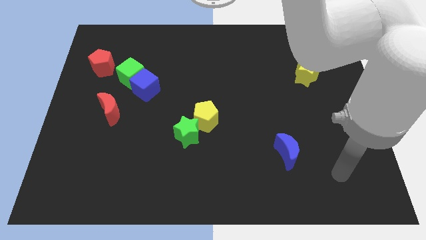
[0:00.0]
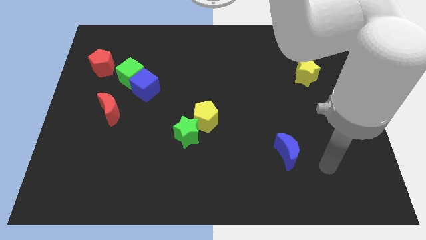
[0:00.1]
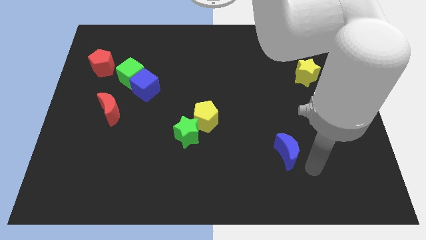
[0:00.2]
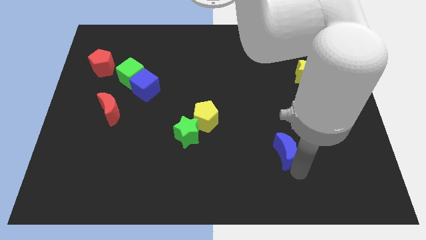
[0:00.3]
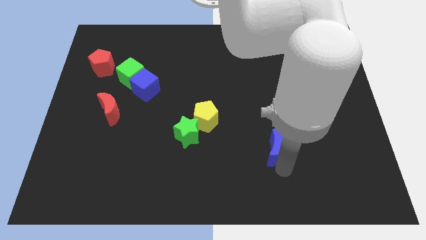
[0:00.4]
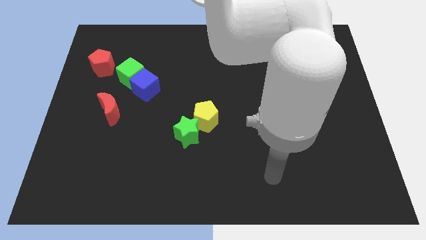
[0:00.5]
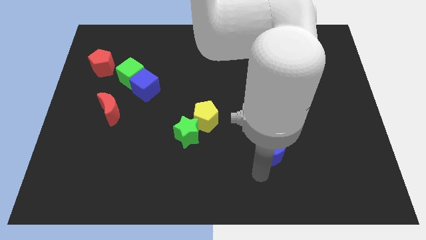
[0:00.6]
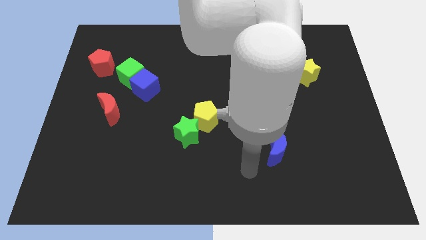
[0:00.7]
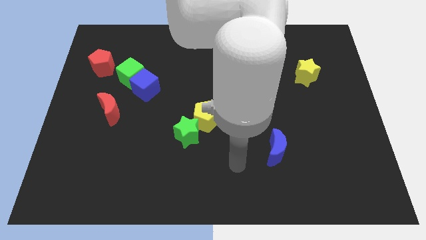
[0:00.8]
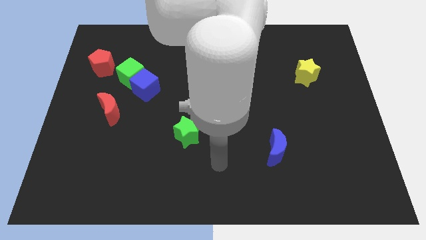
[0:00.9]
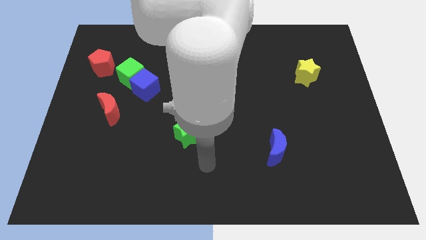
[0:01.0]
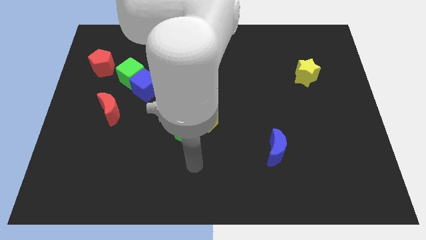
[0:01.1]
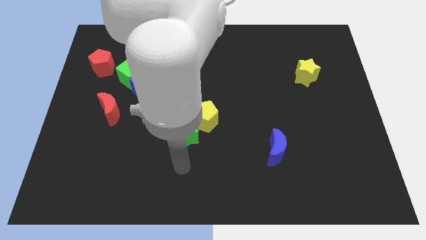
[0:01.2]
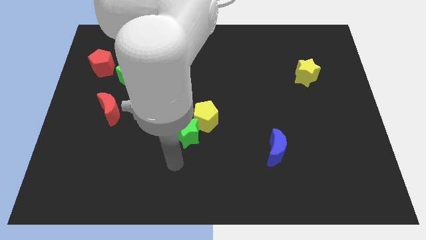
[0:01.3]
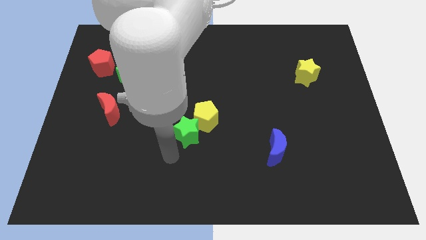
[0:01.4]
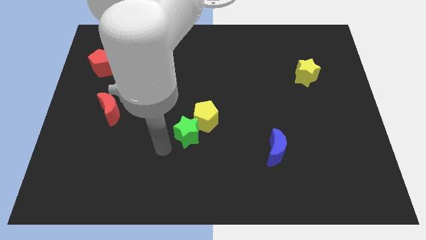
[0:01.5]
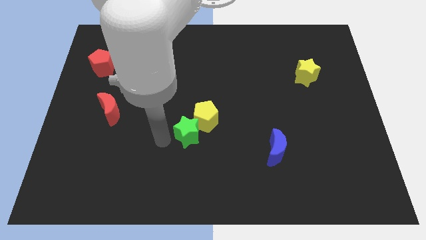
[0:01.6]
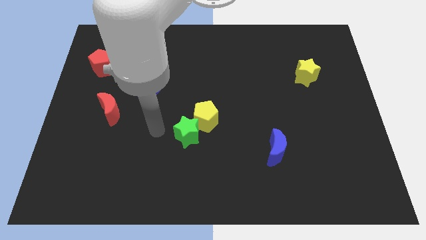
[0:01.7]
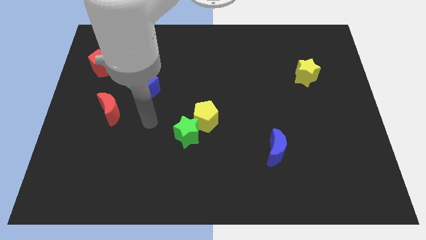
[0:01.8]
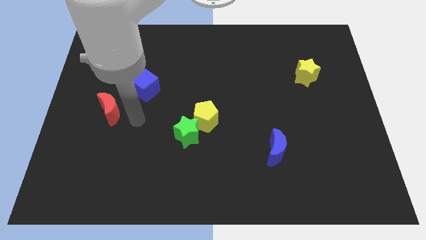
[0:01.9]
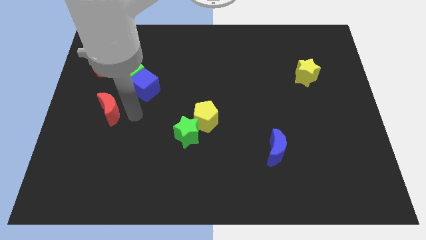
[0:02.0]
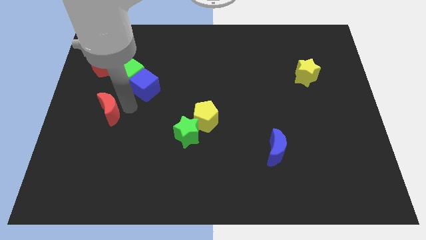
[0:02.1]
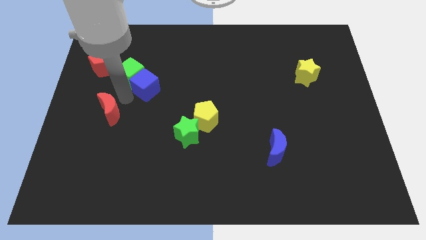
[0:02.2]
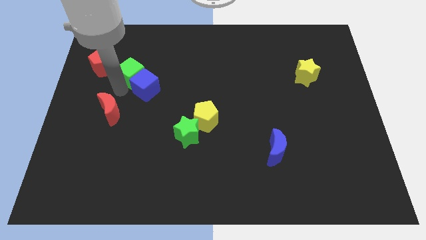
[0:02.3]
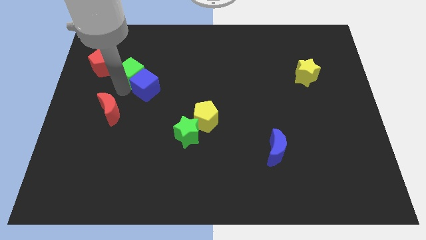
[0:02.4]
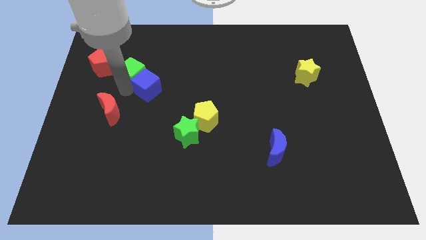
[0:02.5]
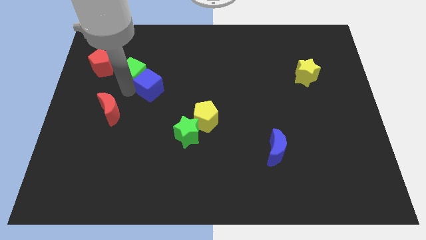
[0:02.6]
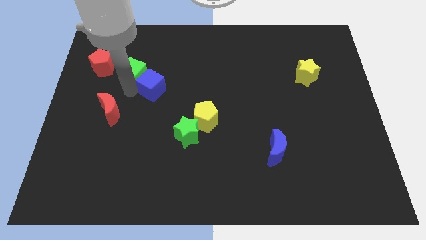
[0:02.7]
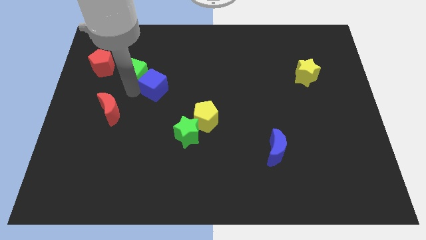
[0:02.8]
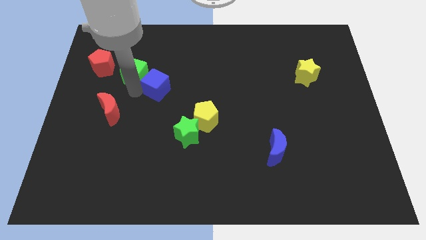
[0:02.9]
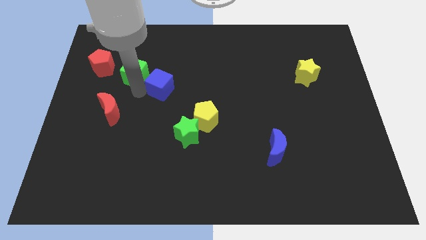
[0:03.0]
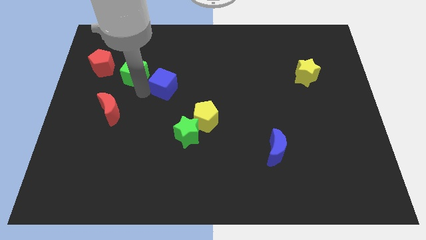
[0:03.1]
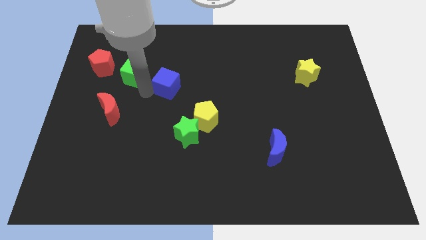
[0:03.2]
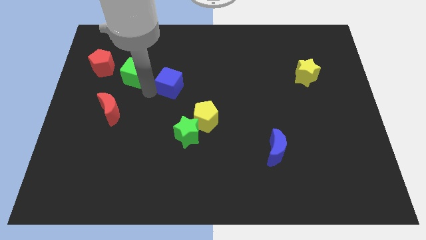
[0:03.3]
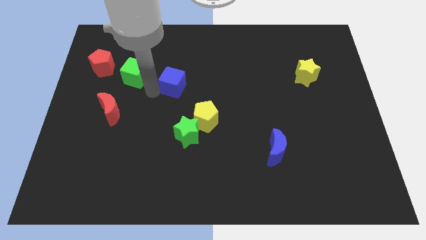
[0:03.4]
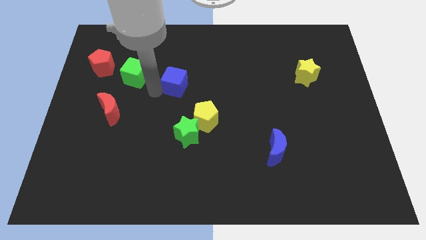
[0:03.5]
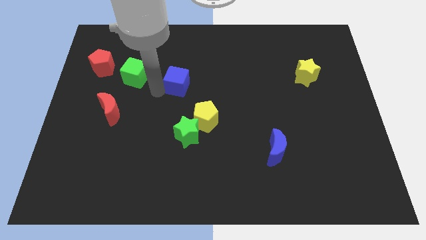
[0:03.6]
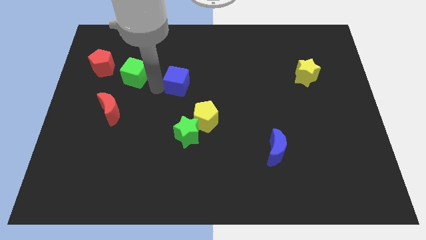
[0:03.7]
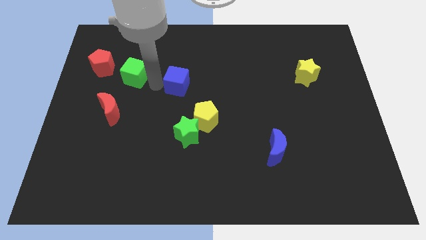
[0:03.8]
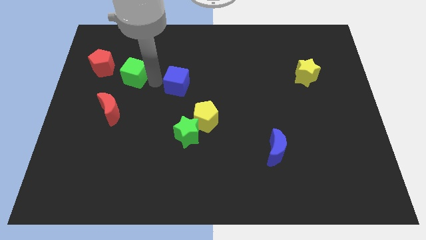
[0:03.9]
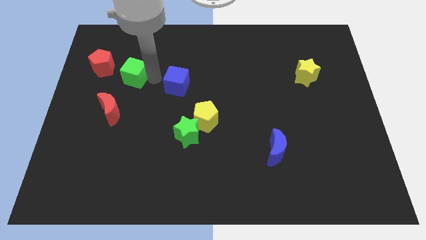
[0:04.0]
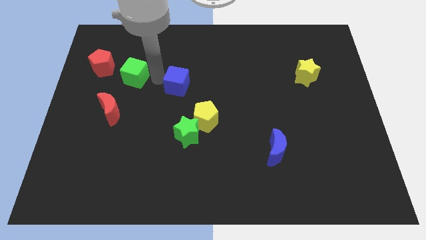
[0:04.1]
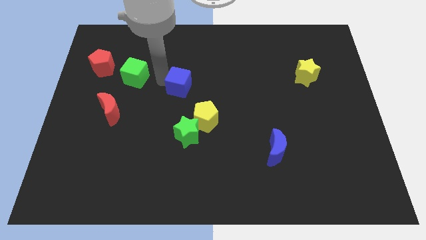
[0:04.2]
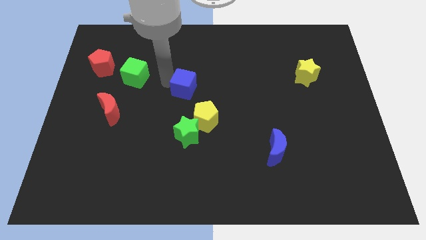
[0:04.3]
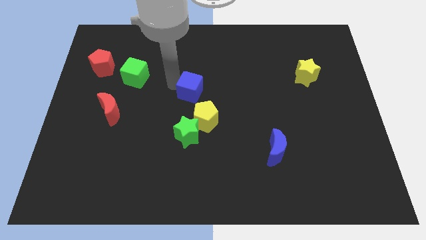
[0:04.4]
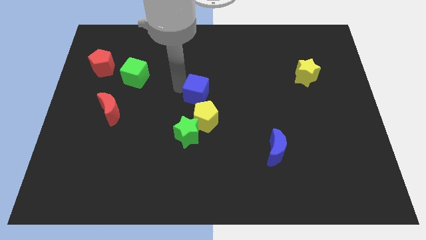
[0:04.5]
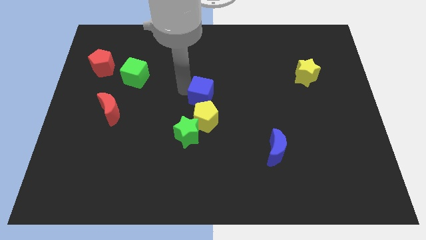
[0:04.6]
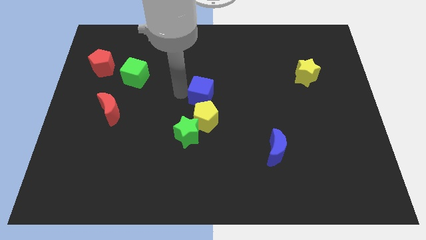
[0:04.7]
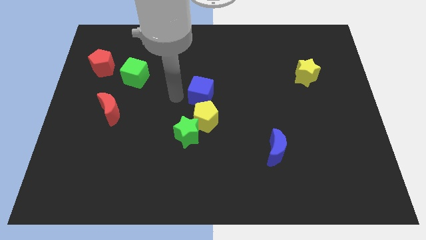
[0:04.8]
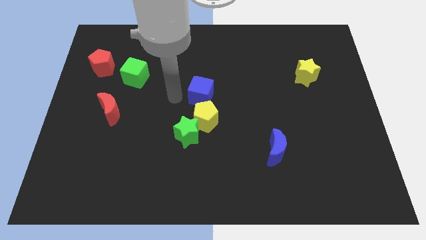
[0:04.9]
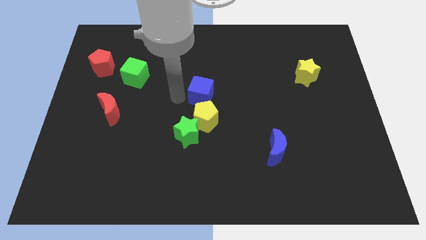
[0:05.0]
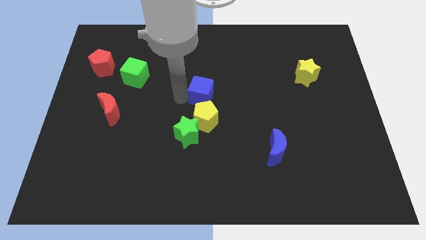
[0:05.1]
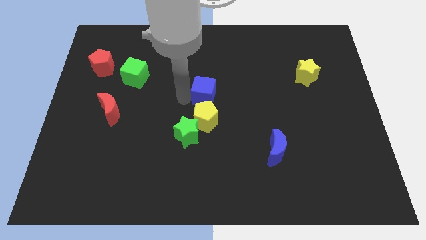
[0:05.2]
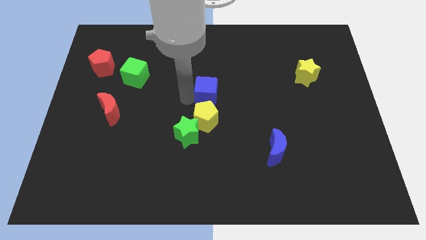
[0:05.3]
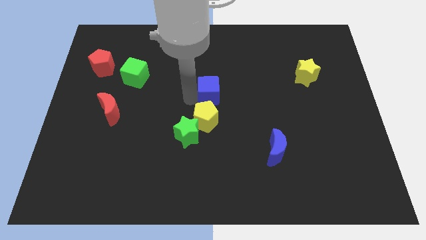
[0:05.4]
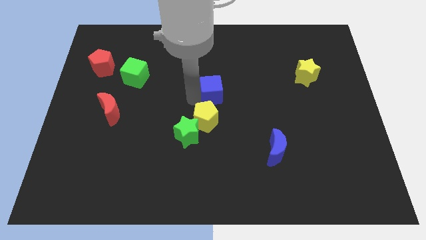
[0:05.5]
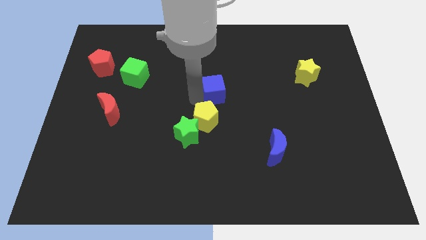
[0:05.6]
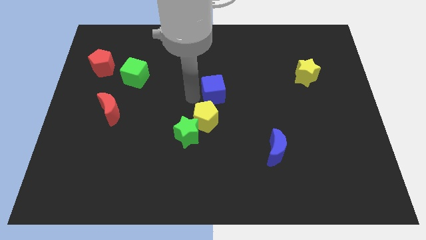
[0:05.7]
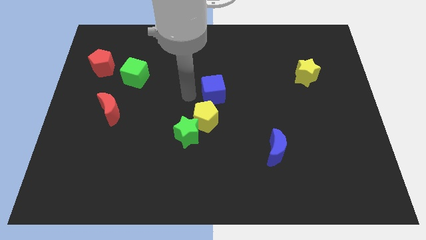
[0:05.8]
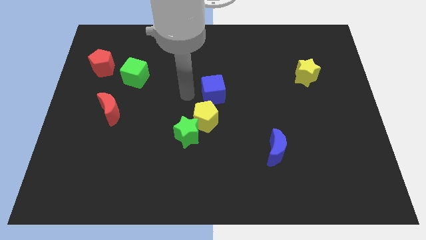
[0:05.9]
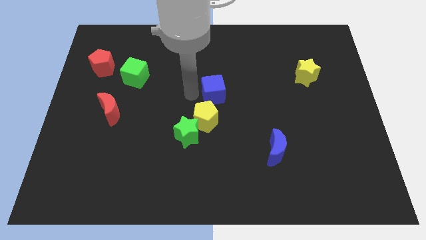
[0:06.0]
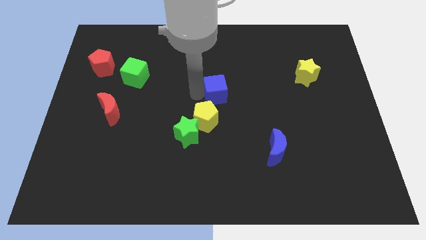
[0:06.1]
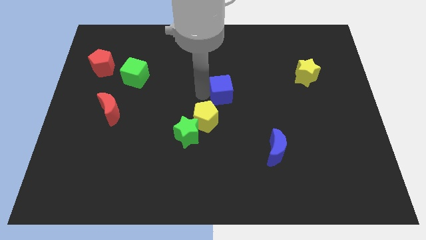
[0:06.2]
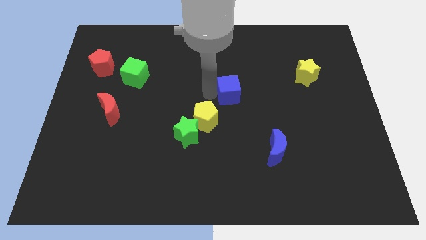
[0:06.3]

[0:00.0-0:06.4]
move the blue cube right

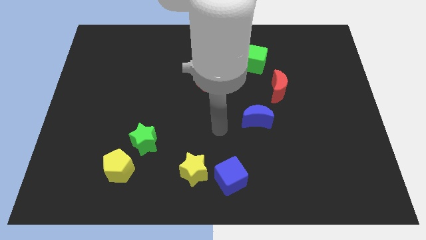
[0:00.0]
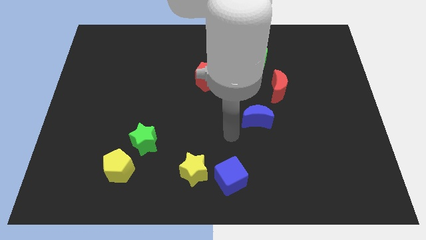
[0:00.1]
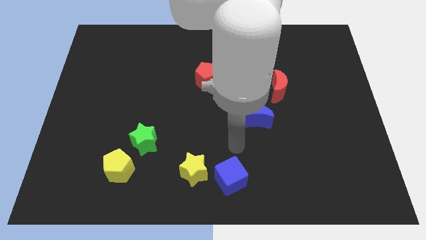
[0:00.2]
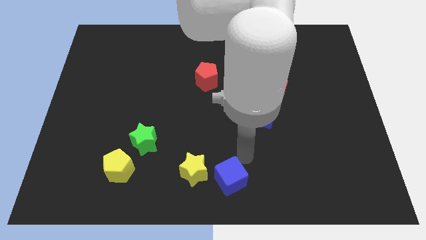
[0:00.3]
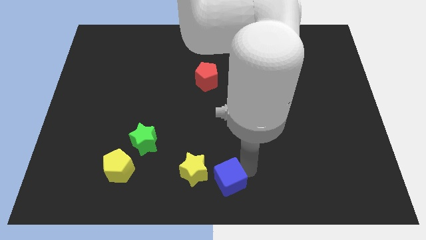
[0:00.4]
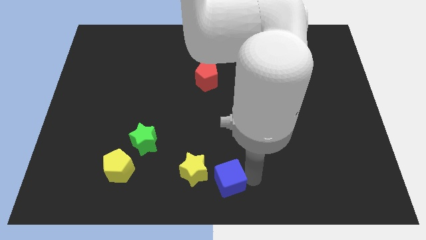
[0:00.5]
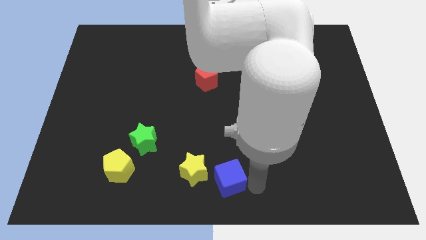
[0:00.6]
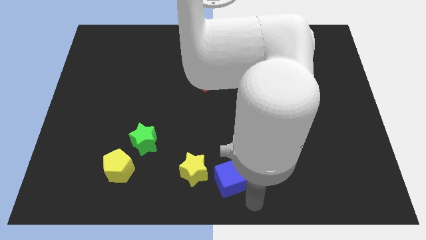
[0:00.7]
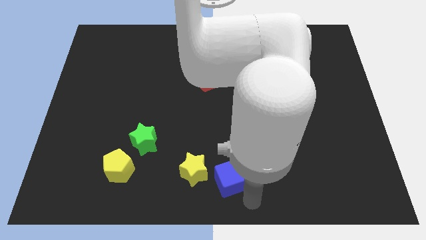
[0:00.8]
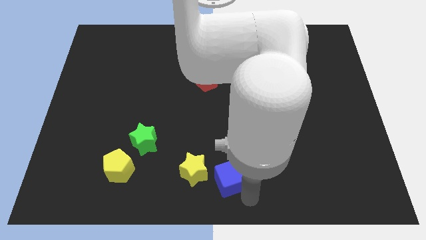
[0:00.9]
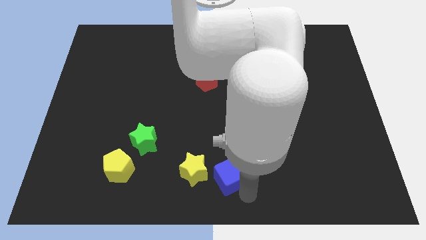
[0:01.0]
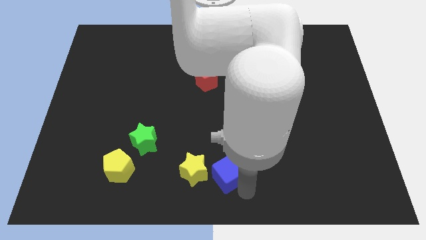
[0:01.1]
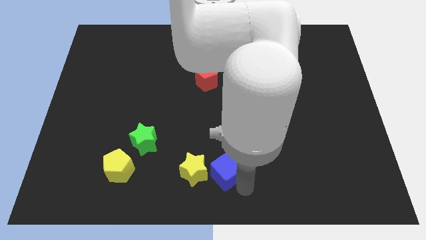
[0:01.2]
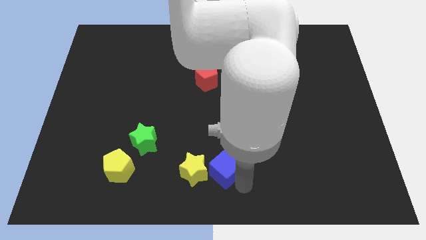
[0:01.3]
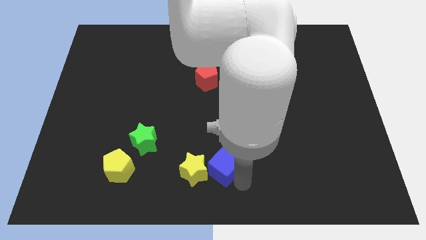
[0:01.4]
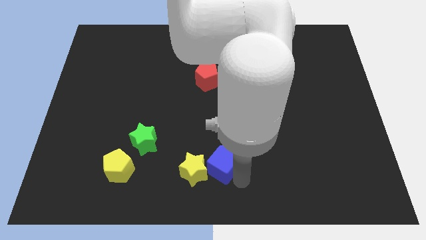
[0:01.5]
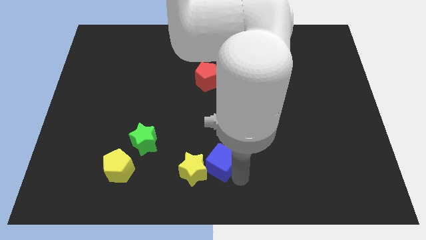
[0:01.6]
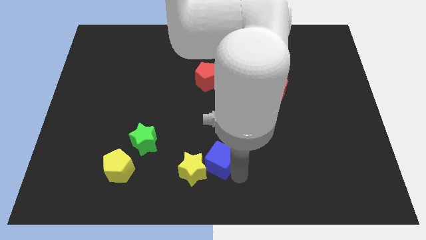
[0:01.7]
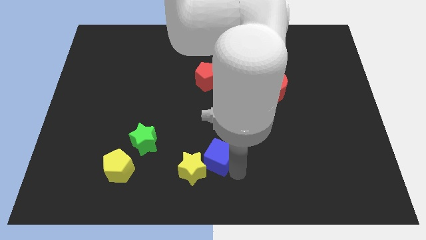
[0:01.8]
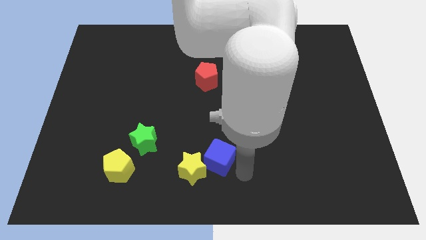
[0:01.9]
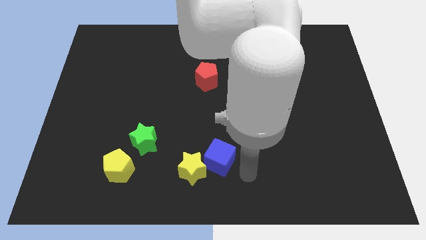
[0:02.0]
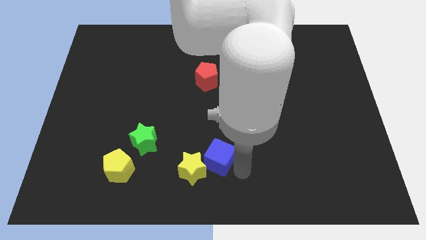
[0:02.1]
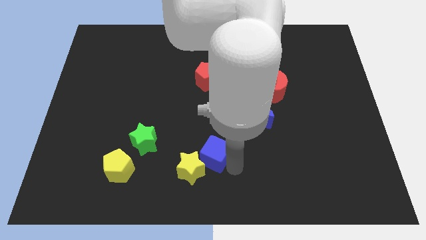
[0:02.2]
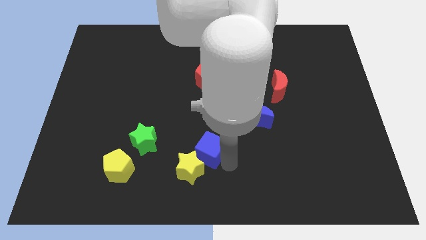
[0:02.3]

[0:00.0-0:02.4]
move the blue cube upwards and then left a little
